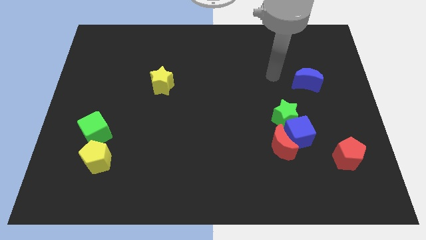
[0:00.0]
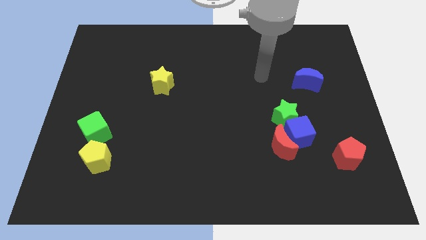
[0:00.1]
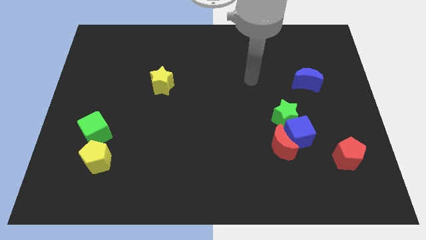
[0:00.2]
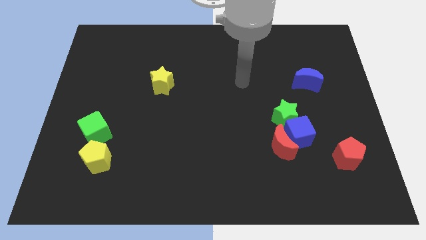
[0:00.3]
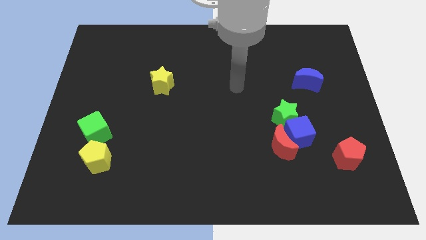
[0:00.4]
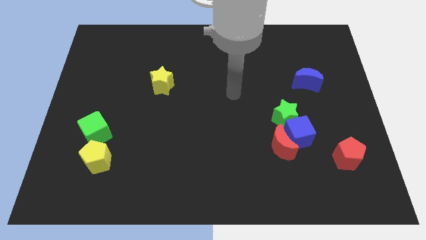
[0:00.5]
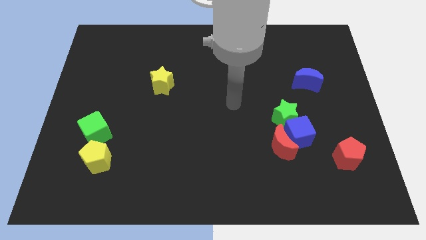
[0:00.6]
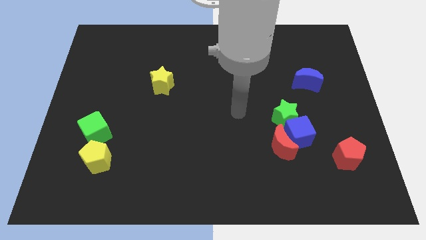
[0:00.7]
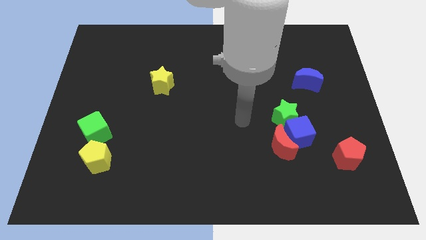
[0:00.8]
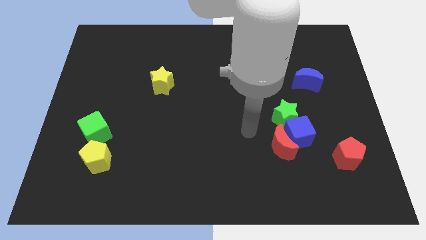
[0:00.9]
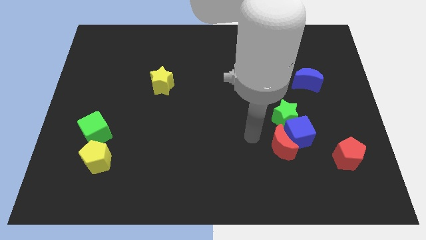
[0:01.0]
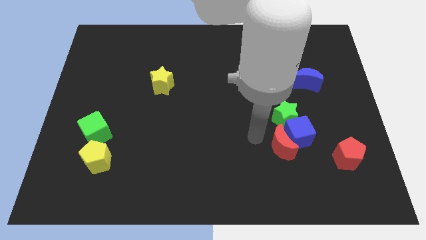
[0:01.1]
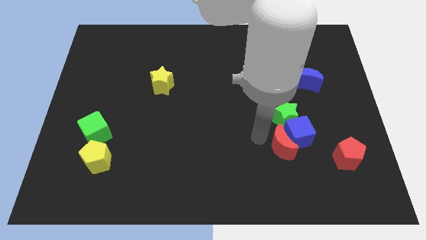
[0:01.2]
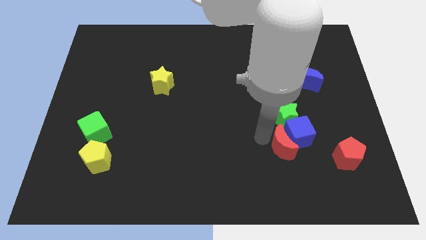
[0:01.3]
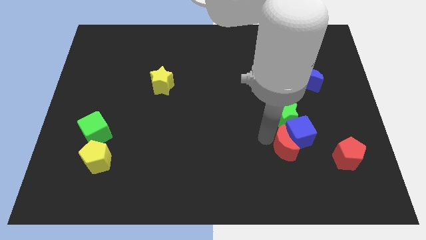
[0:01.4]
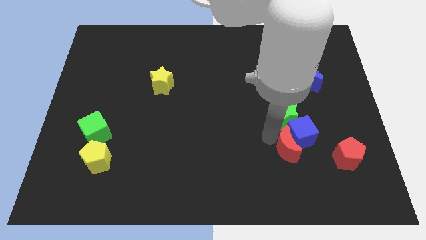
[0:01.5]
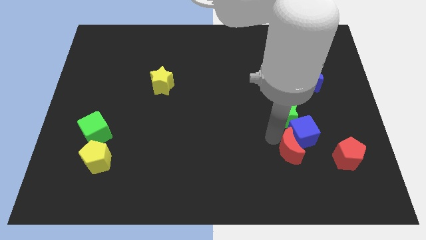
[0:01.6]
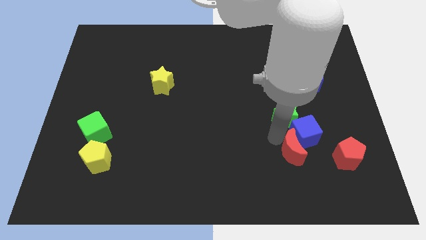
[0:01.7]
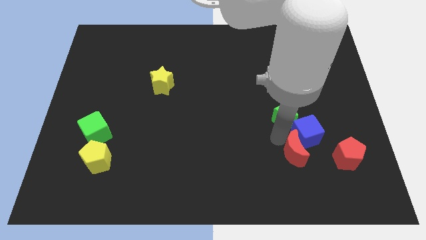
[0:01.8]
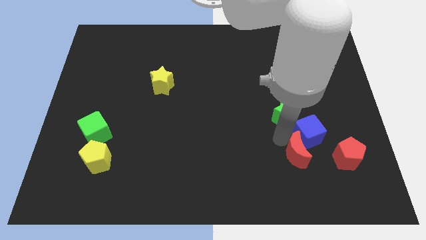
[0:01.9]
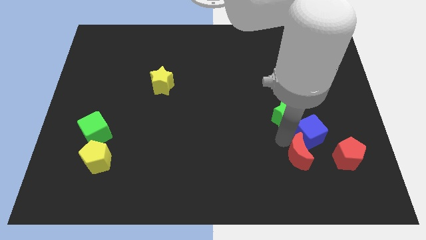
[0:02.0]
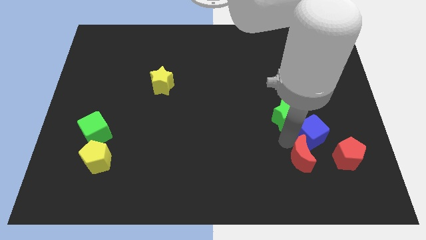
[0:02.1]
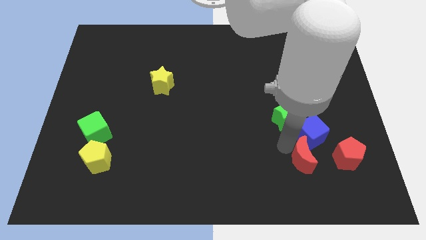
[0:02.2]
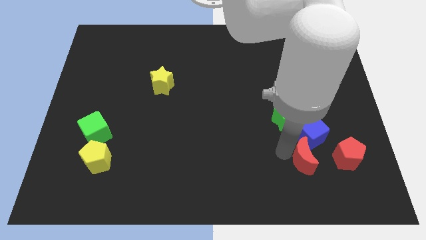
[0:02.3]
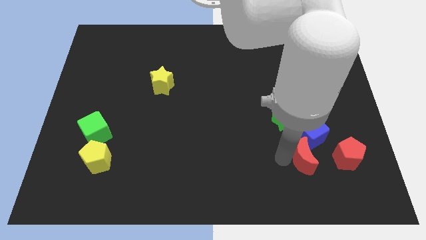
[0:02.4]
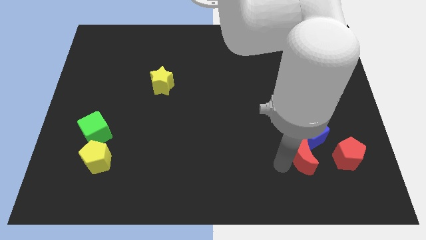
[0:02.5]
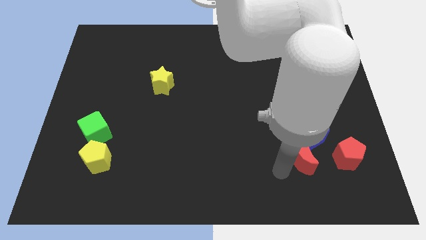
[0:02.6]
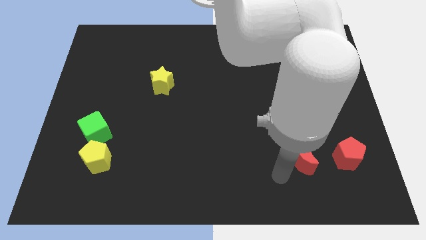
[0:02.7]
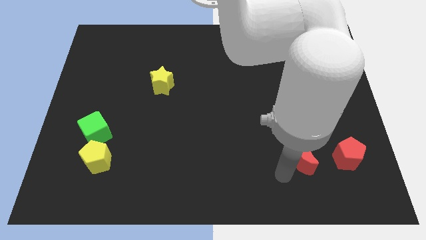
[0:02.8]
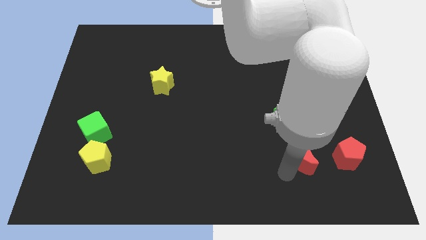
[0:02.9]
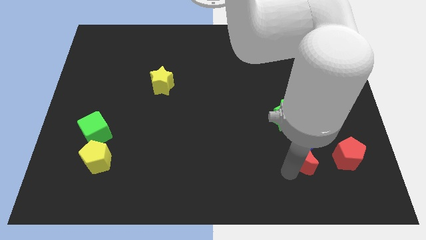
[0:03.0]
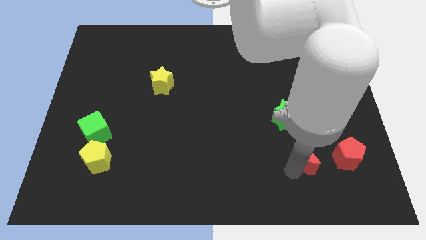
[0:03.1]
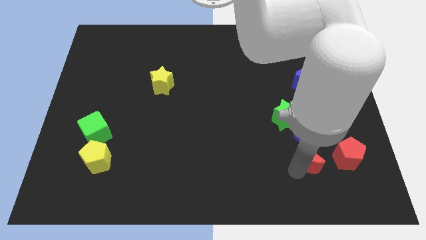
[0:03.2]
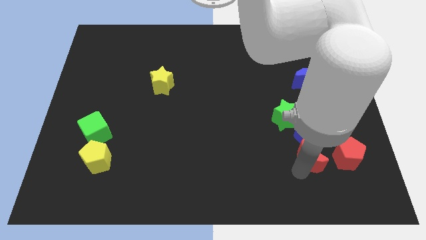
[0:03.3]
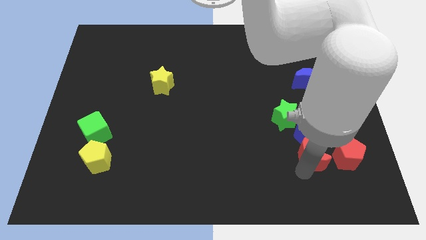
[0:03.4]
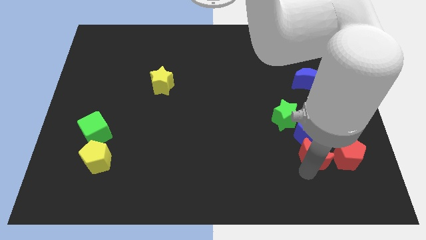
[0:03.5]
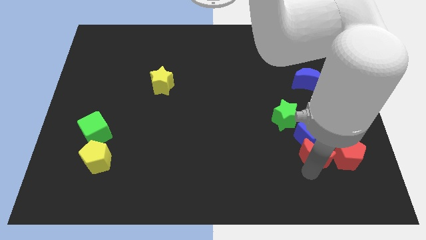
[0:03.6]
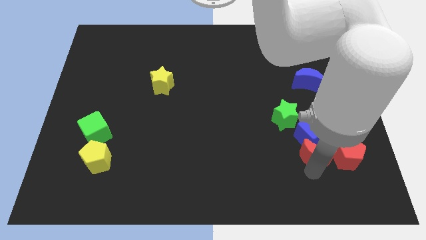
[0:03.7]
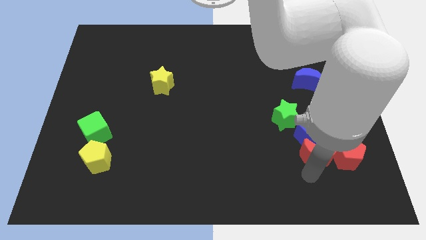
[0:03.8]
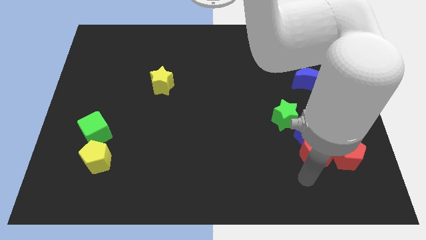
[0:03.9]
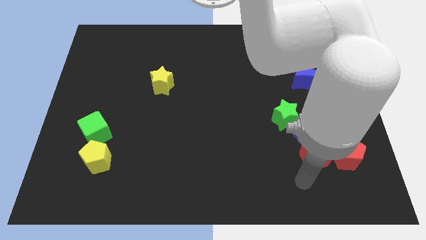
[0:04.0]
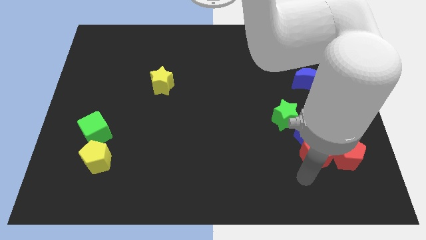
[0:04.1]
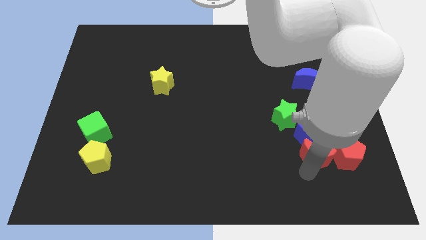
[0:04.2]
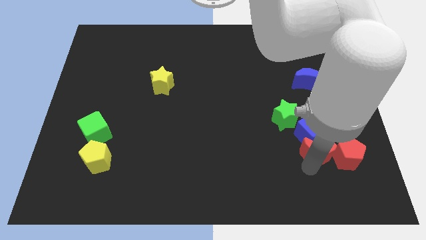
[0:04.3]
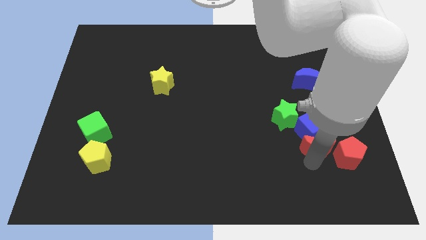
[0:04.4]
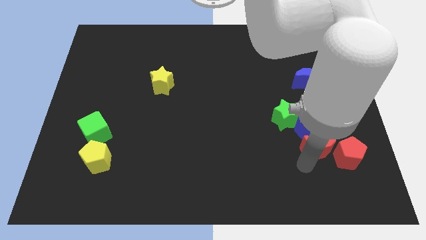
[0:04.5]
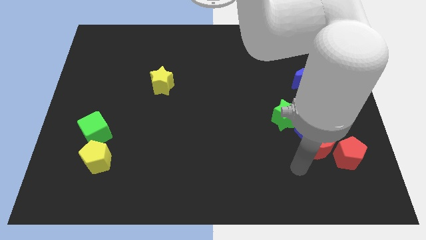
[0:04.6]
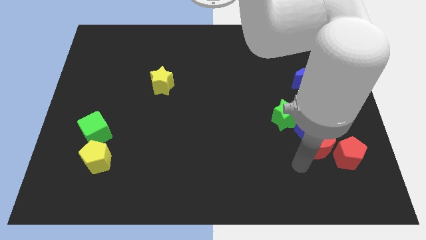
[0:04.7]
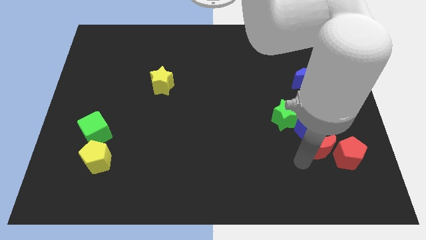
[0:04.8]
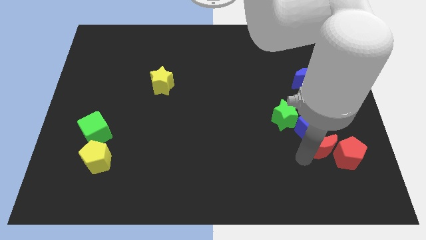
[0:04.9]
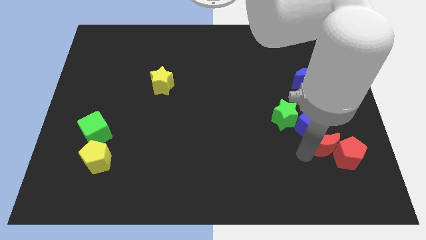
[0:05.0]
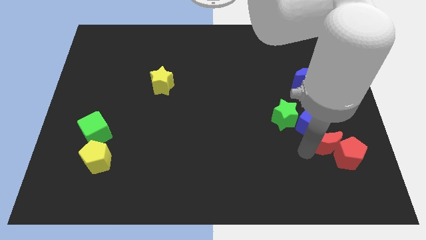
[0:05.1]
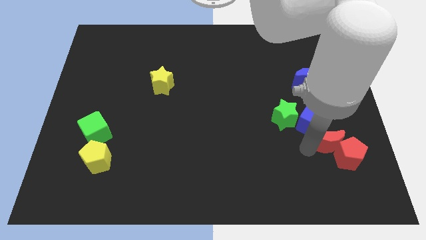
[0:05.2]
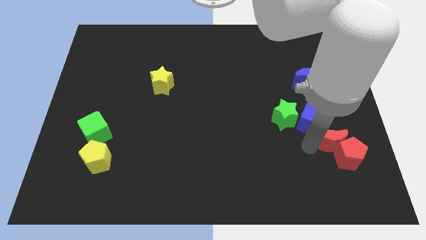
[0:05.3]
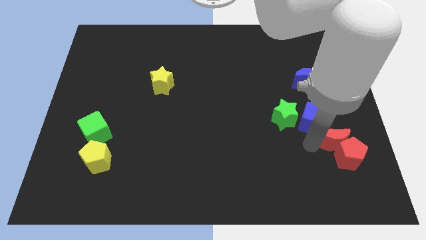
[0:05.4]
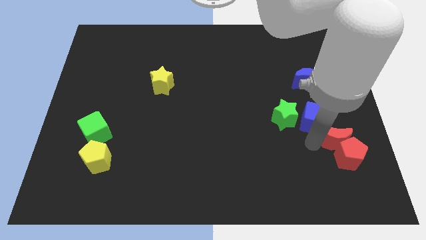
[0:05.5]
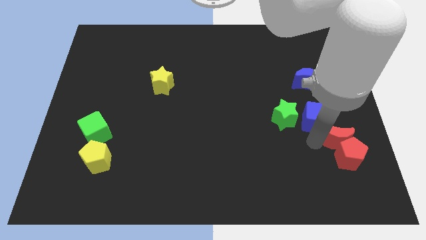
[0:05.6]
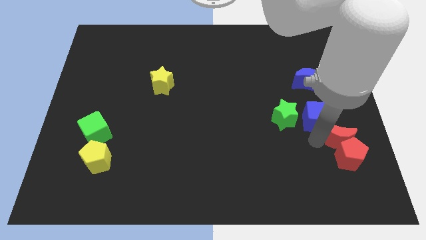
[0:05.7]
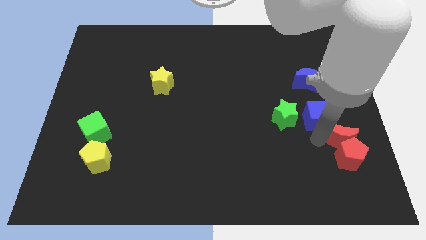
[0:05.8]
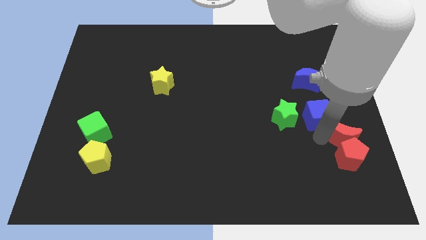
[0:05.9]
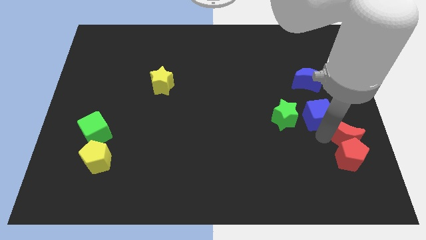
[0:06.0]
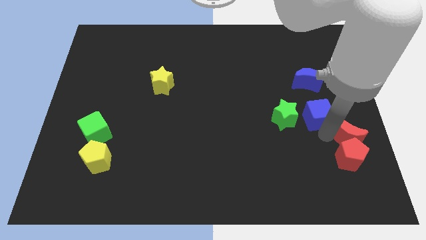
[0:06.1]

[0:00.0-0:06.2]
slide the red moon to the right side of the board

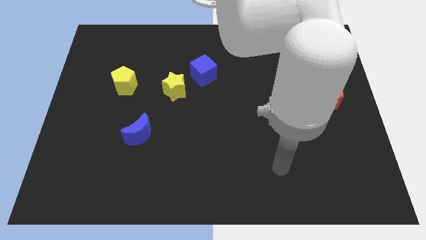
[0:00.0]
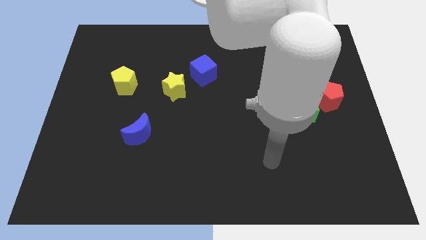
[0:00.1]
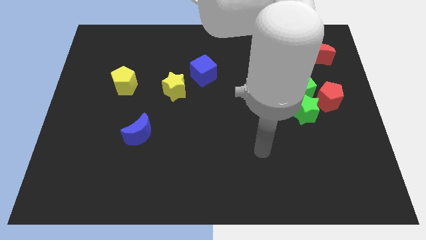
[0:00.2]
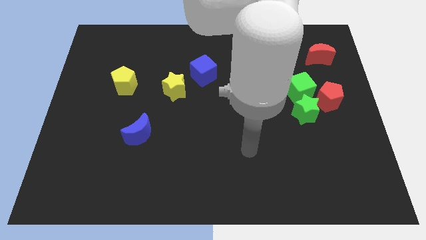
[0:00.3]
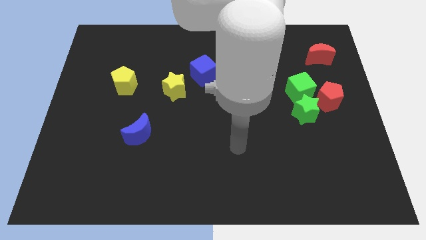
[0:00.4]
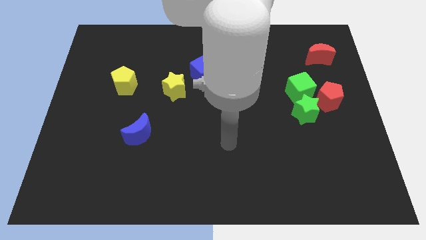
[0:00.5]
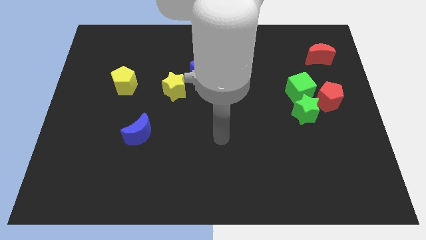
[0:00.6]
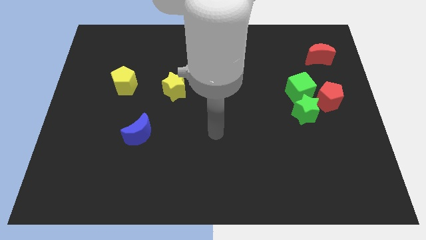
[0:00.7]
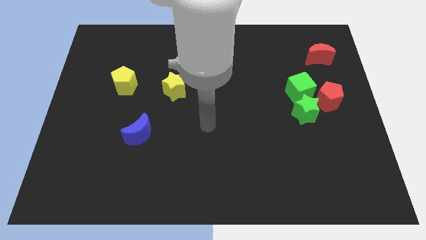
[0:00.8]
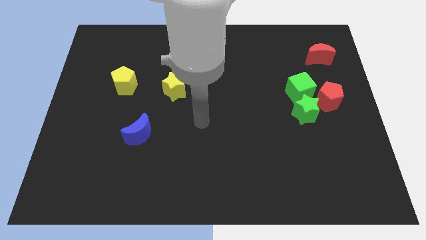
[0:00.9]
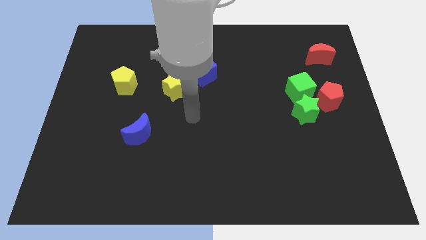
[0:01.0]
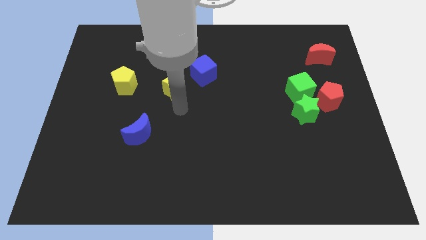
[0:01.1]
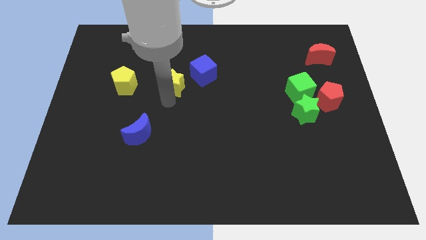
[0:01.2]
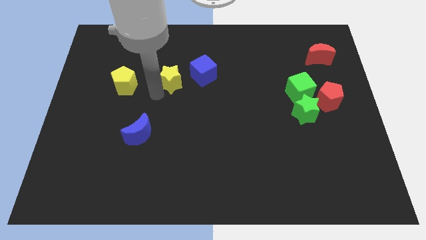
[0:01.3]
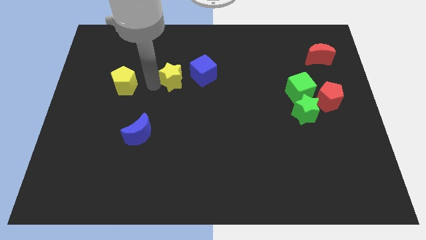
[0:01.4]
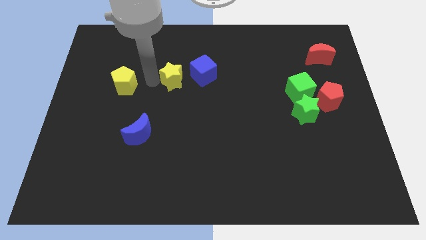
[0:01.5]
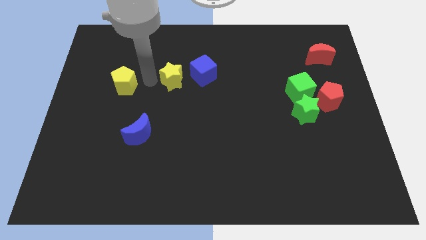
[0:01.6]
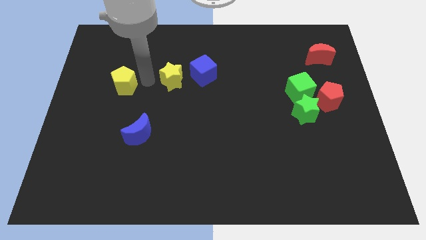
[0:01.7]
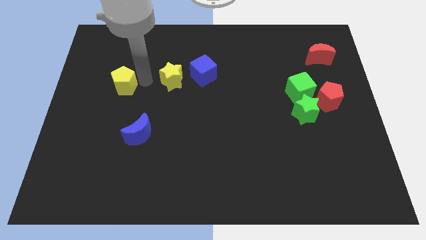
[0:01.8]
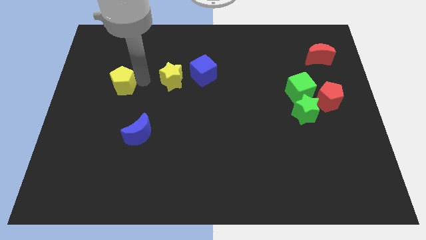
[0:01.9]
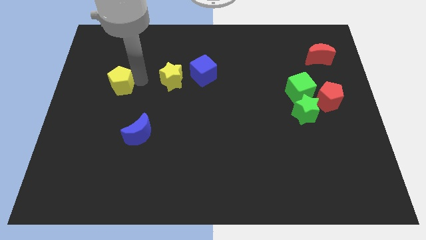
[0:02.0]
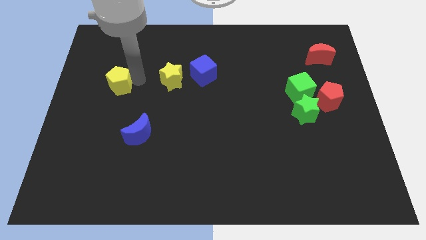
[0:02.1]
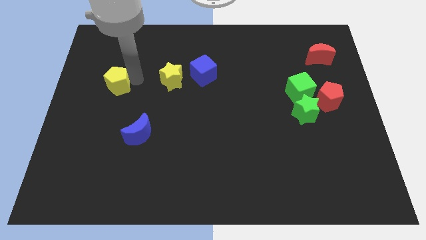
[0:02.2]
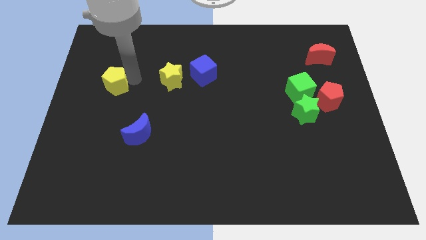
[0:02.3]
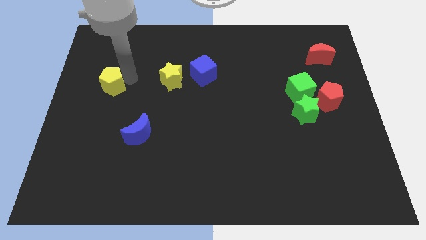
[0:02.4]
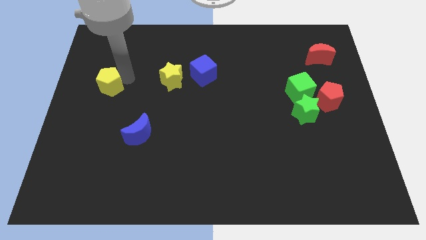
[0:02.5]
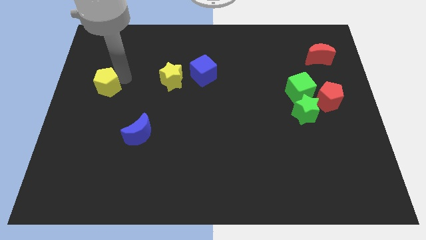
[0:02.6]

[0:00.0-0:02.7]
push the yellow pentagon to the center left
